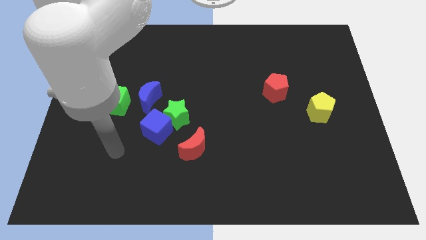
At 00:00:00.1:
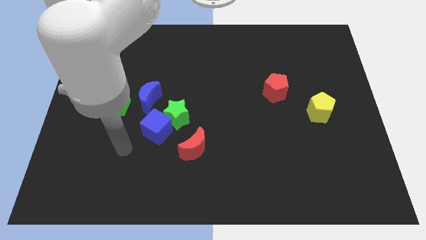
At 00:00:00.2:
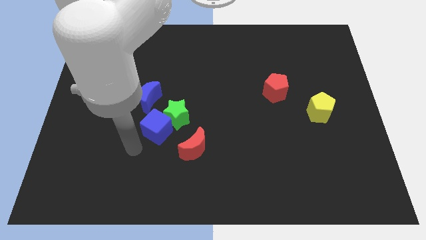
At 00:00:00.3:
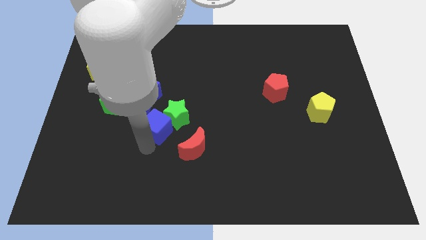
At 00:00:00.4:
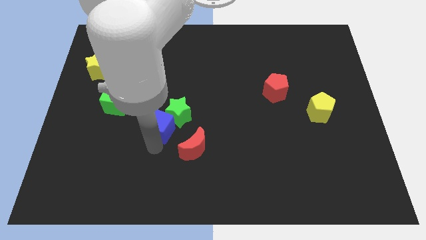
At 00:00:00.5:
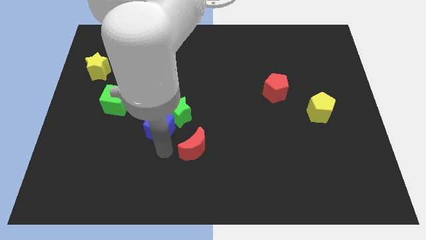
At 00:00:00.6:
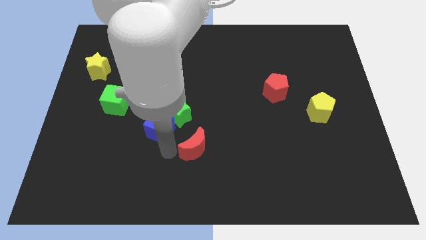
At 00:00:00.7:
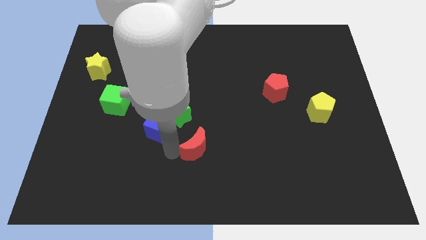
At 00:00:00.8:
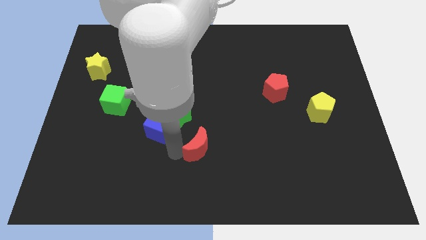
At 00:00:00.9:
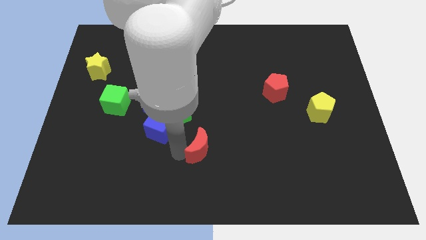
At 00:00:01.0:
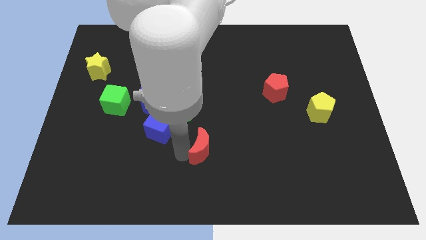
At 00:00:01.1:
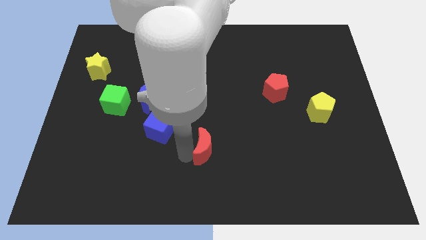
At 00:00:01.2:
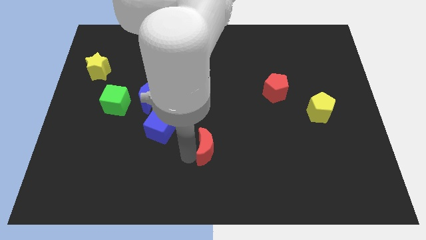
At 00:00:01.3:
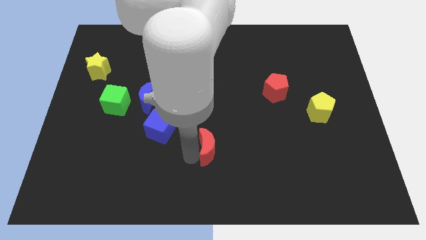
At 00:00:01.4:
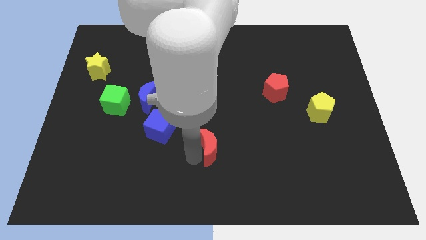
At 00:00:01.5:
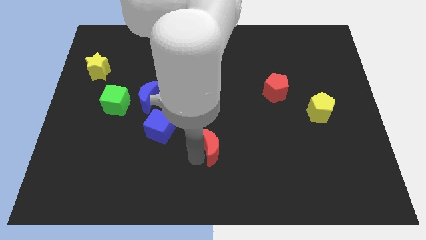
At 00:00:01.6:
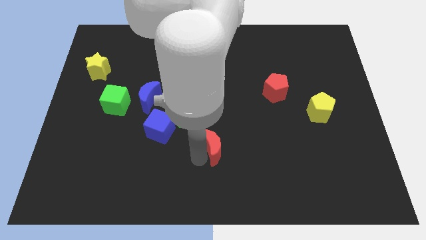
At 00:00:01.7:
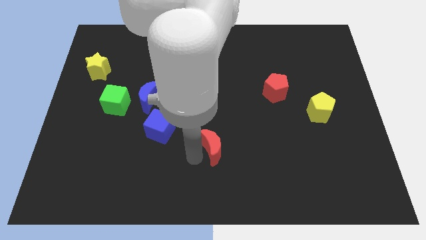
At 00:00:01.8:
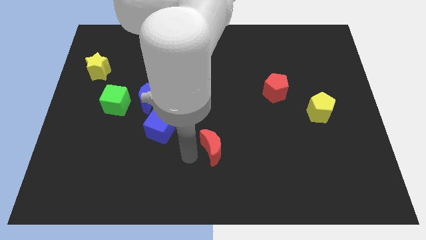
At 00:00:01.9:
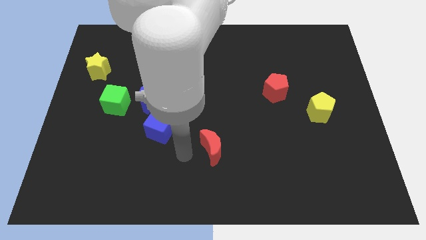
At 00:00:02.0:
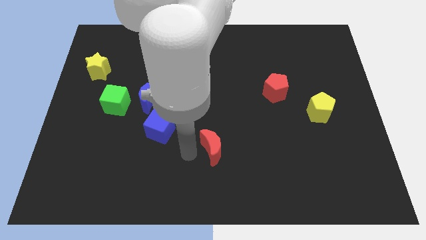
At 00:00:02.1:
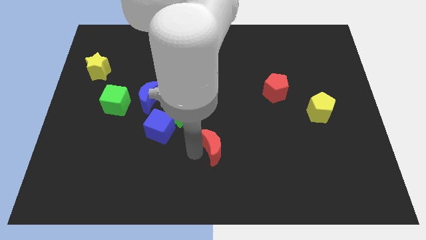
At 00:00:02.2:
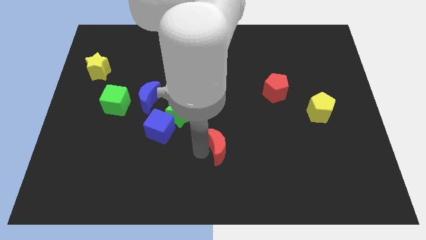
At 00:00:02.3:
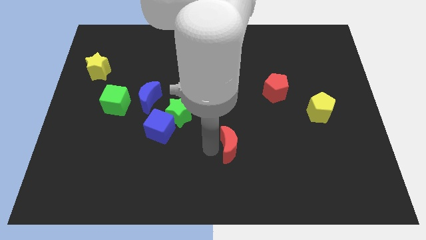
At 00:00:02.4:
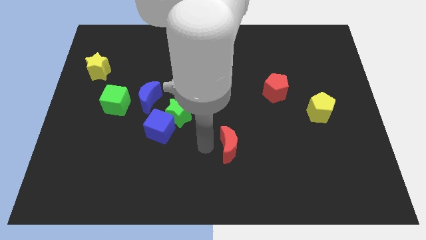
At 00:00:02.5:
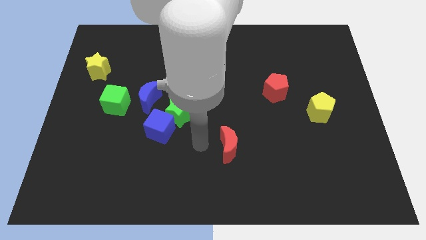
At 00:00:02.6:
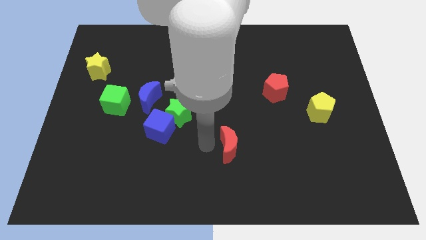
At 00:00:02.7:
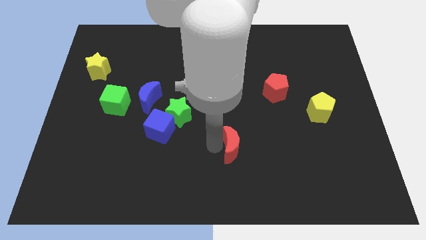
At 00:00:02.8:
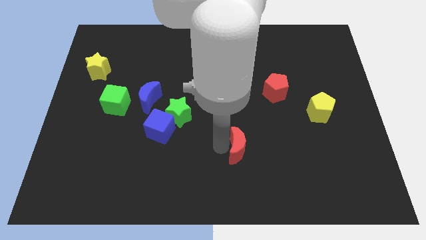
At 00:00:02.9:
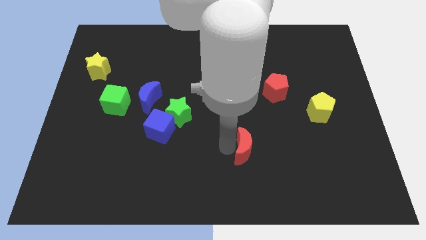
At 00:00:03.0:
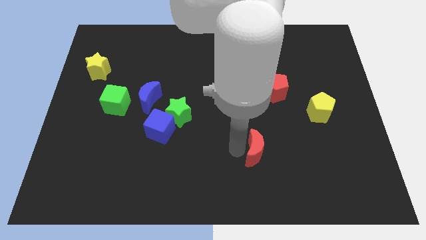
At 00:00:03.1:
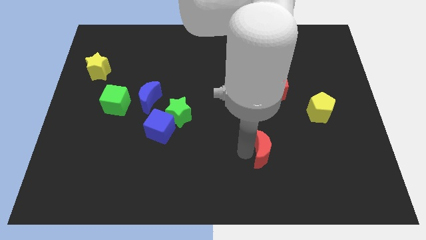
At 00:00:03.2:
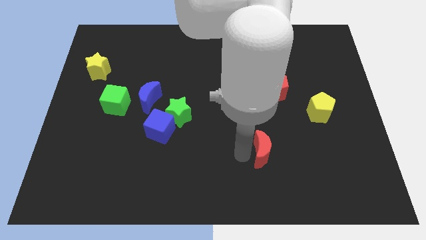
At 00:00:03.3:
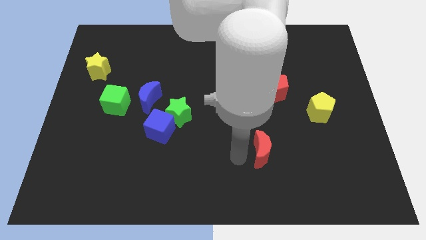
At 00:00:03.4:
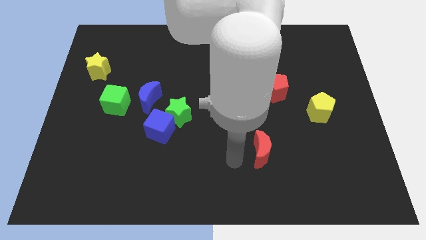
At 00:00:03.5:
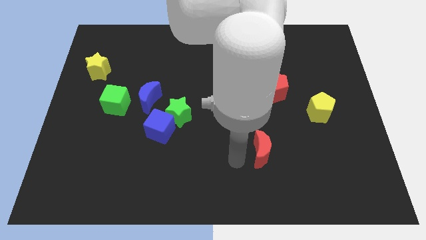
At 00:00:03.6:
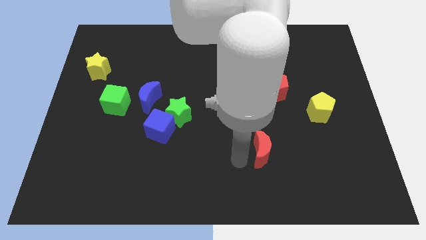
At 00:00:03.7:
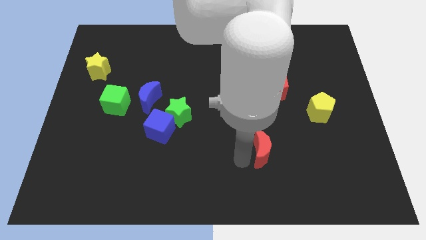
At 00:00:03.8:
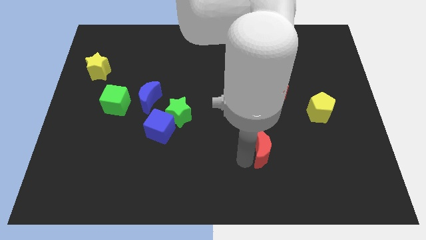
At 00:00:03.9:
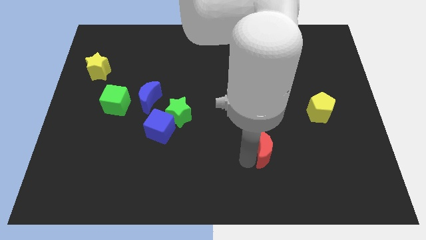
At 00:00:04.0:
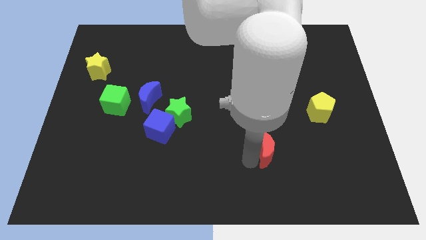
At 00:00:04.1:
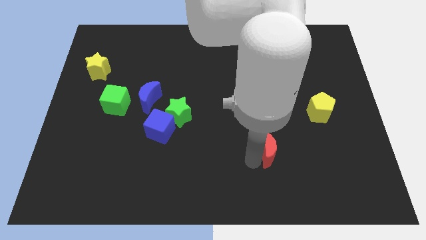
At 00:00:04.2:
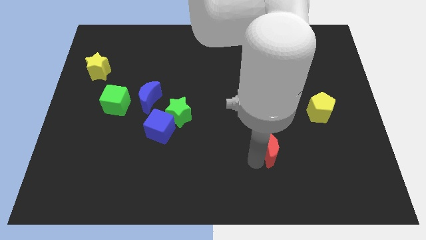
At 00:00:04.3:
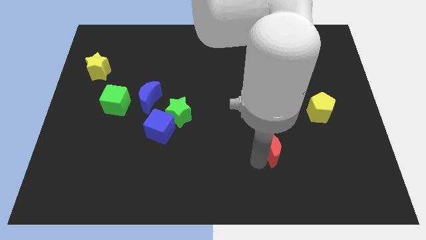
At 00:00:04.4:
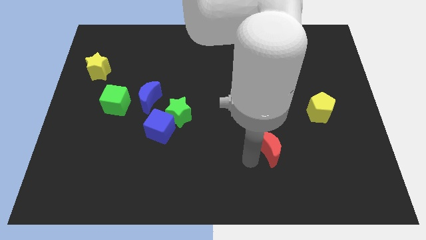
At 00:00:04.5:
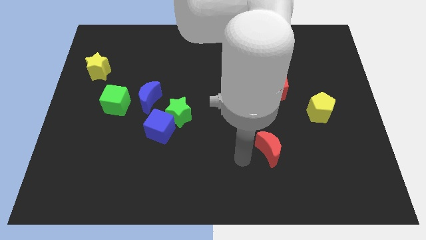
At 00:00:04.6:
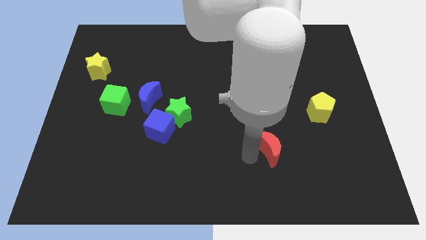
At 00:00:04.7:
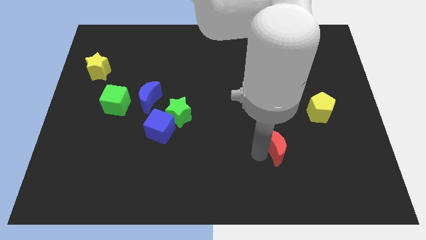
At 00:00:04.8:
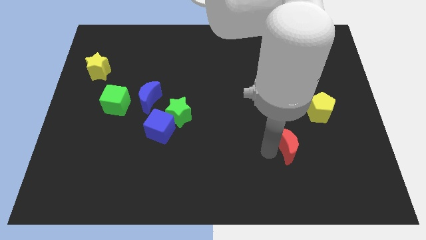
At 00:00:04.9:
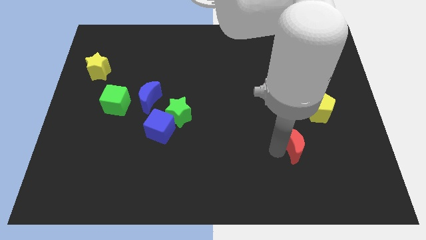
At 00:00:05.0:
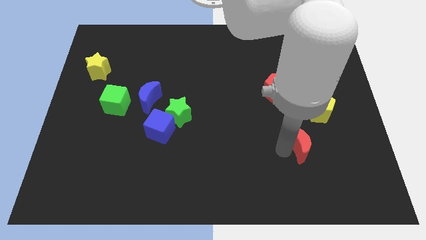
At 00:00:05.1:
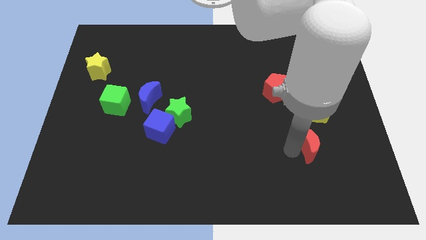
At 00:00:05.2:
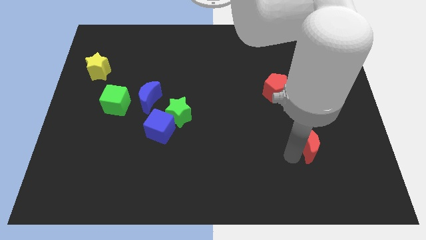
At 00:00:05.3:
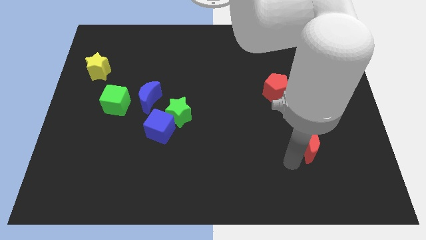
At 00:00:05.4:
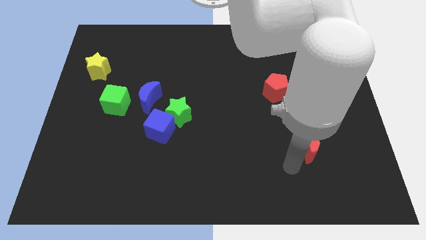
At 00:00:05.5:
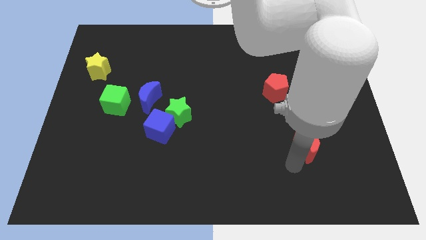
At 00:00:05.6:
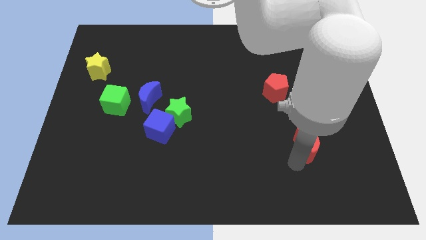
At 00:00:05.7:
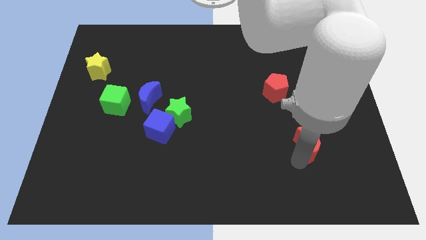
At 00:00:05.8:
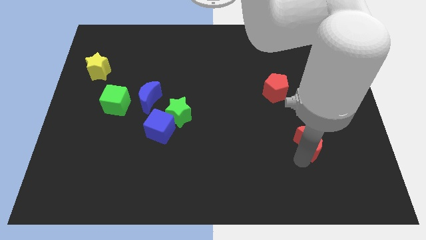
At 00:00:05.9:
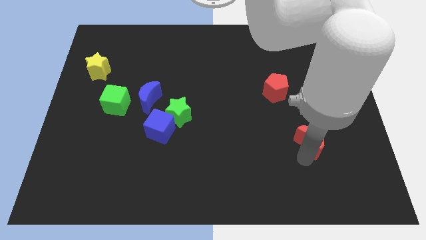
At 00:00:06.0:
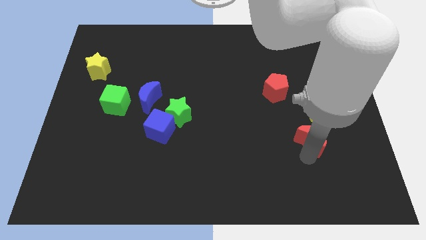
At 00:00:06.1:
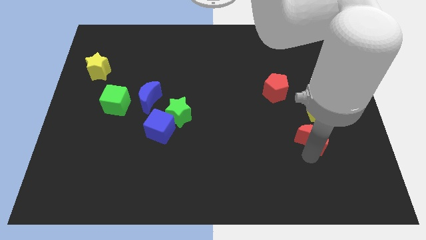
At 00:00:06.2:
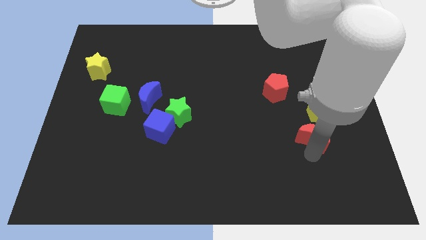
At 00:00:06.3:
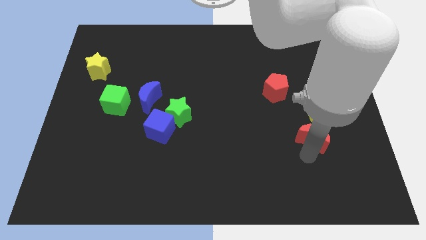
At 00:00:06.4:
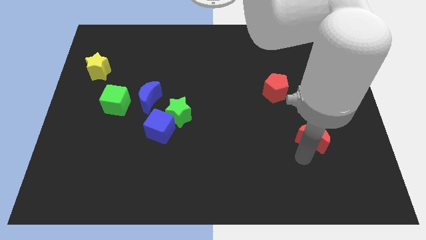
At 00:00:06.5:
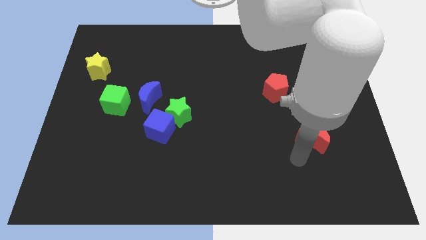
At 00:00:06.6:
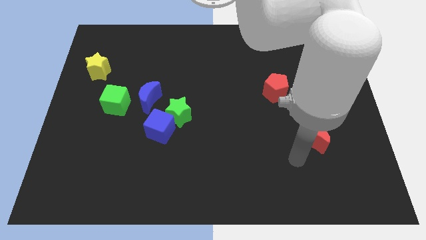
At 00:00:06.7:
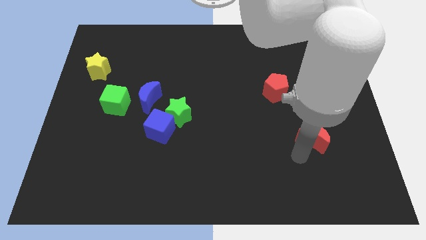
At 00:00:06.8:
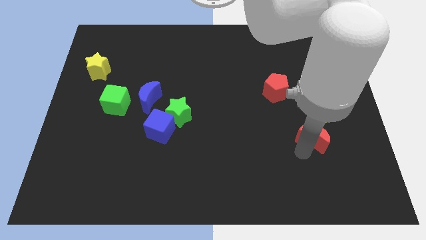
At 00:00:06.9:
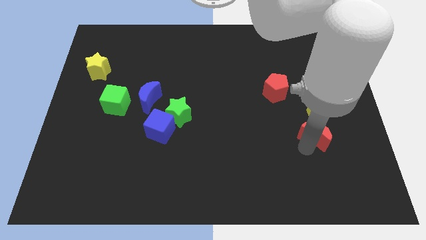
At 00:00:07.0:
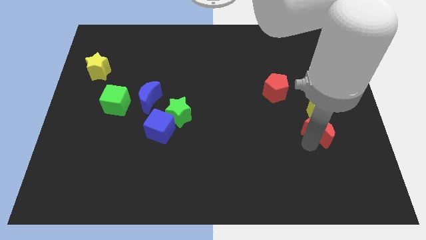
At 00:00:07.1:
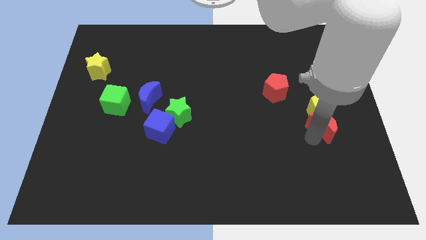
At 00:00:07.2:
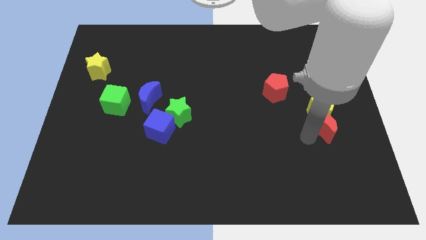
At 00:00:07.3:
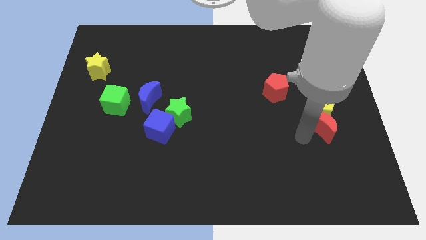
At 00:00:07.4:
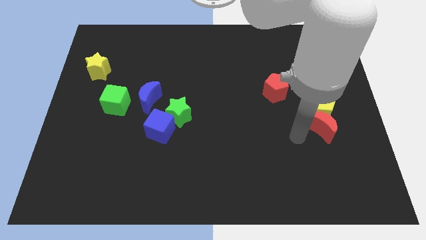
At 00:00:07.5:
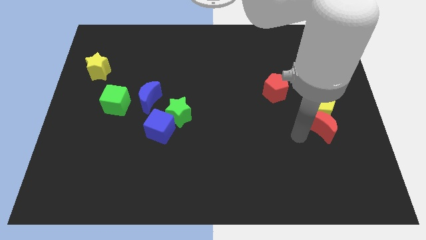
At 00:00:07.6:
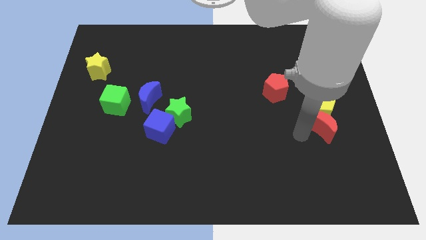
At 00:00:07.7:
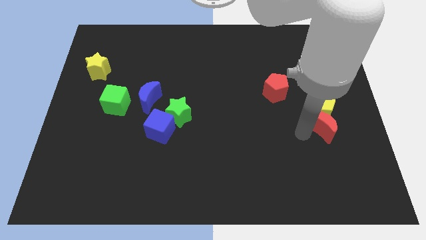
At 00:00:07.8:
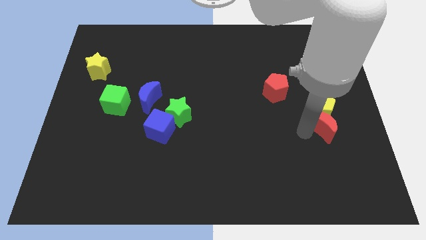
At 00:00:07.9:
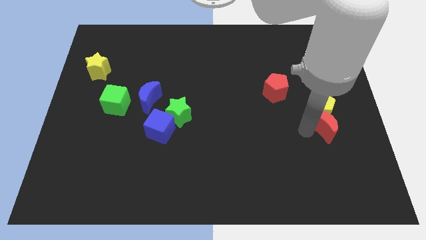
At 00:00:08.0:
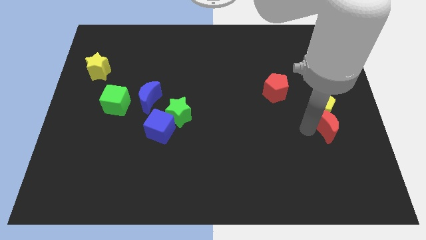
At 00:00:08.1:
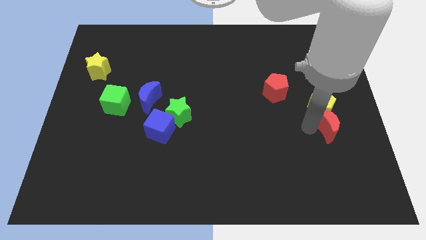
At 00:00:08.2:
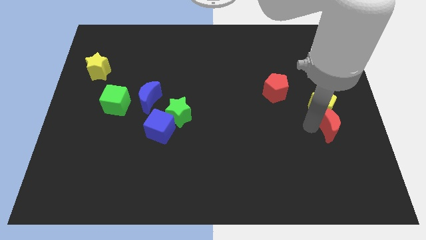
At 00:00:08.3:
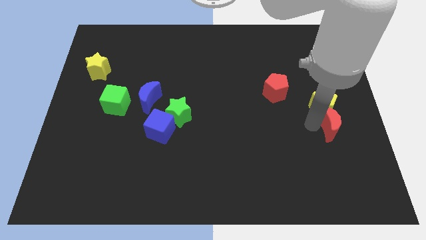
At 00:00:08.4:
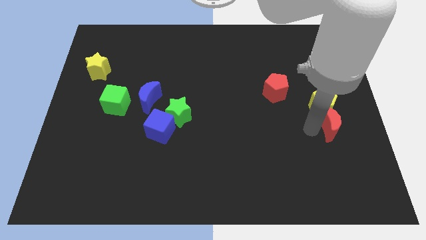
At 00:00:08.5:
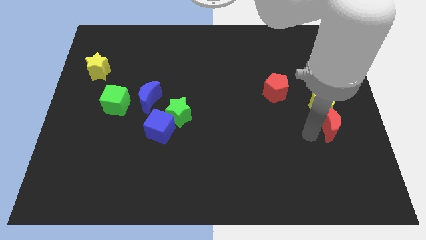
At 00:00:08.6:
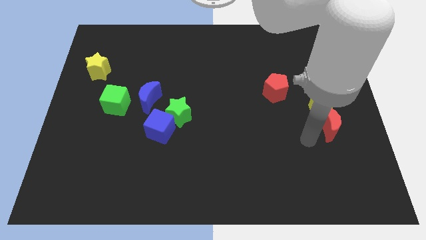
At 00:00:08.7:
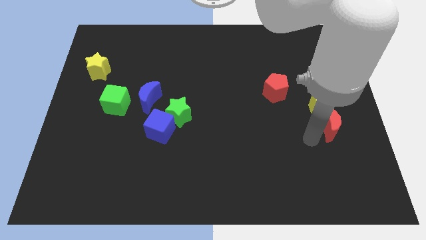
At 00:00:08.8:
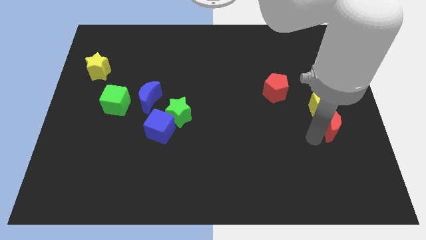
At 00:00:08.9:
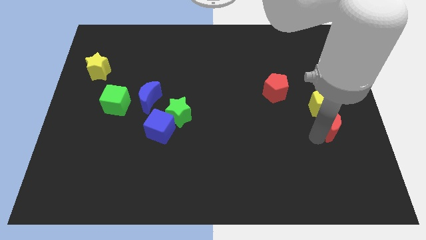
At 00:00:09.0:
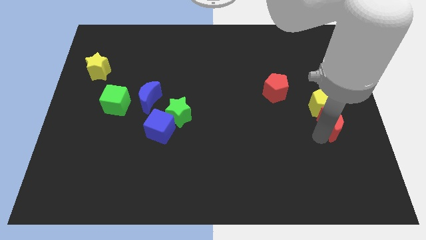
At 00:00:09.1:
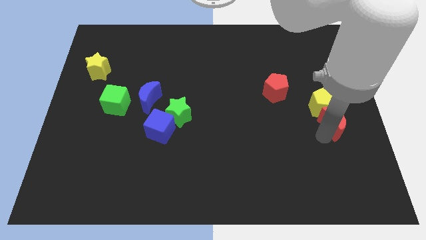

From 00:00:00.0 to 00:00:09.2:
move the red moon to the center right
